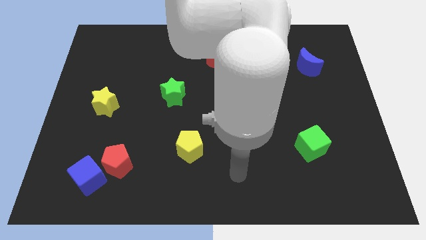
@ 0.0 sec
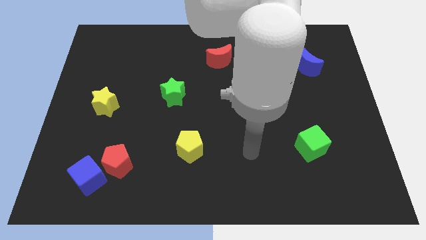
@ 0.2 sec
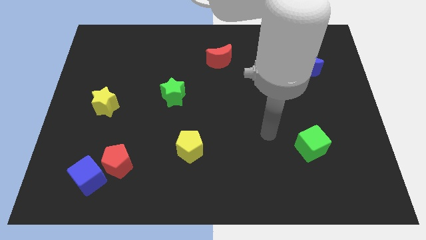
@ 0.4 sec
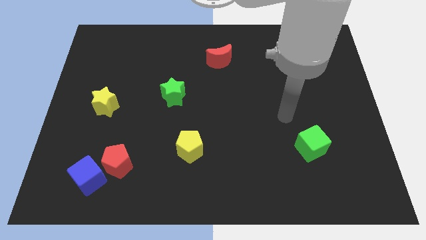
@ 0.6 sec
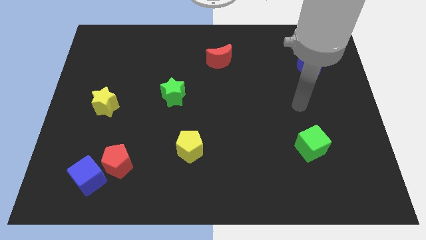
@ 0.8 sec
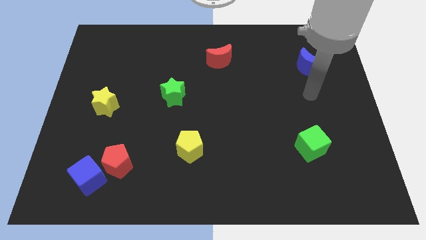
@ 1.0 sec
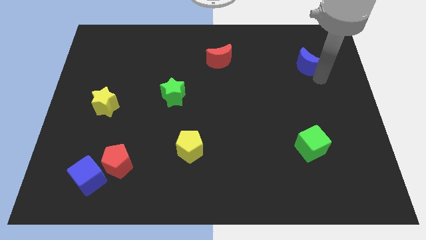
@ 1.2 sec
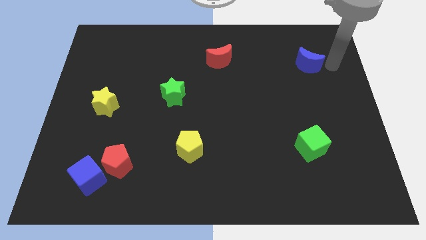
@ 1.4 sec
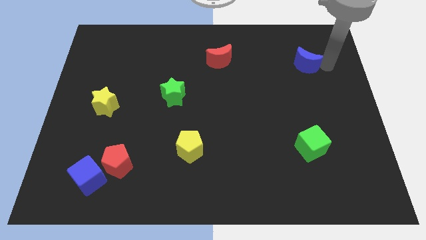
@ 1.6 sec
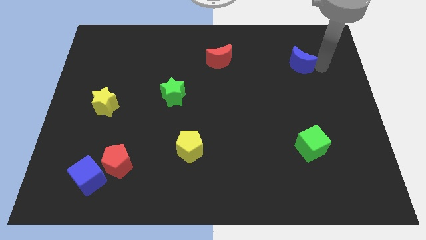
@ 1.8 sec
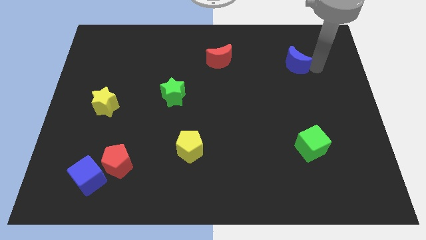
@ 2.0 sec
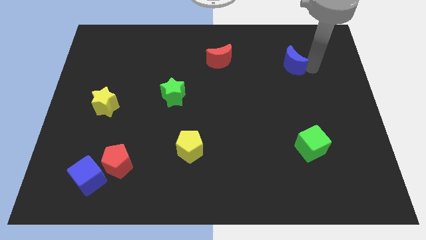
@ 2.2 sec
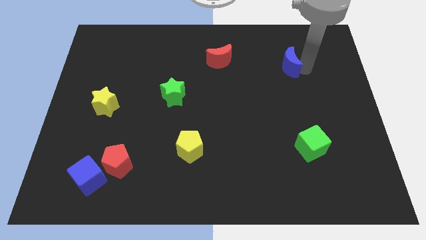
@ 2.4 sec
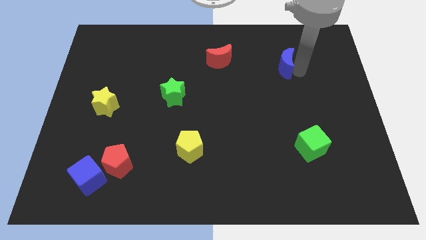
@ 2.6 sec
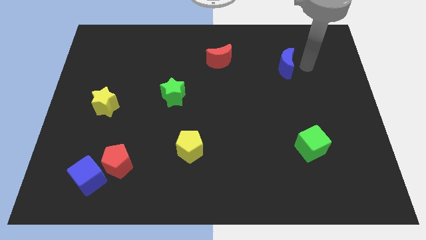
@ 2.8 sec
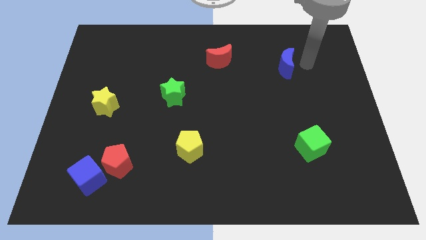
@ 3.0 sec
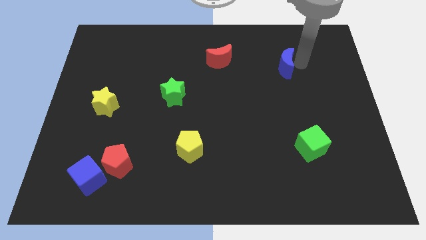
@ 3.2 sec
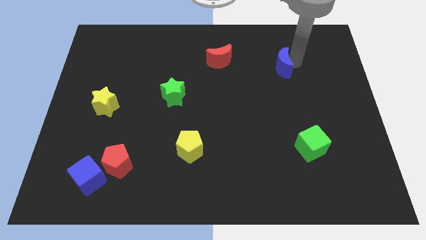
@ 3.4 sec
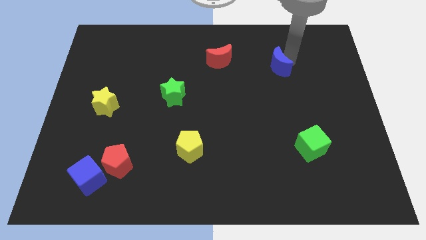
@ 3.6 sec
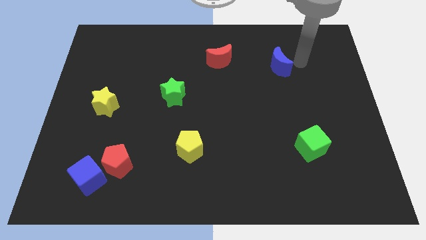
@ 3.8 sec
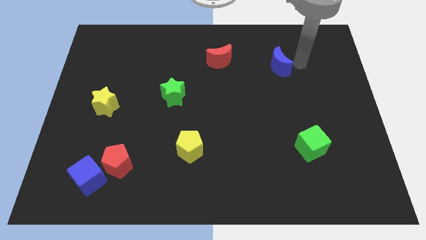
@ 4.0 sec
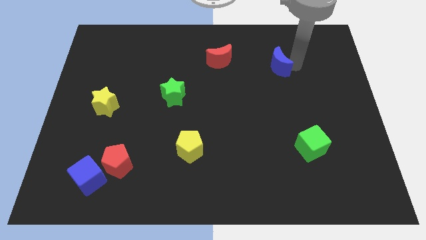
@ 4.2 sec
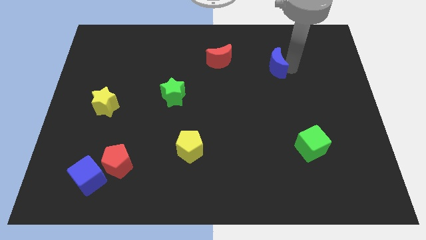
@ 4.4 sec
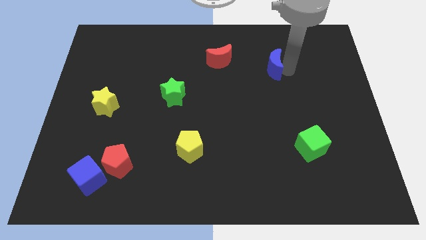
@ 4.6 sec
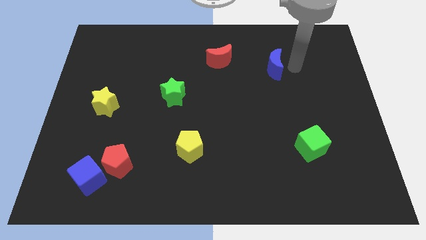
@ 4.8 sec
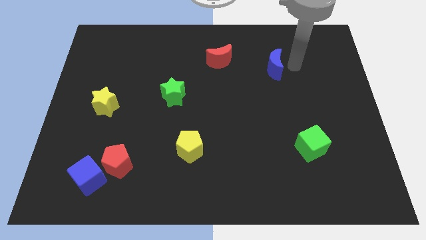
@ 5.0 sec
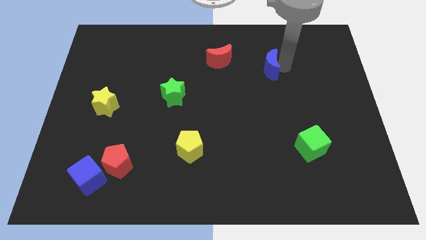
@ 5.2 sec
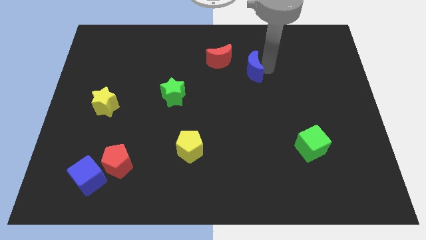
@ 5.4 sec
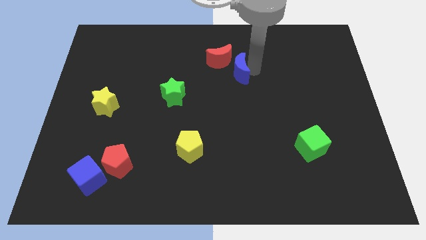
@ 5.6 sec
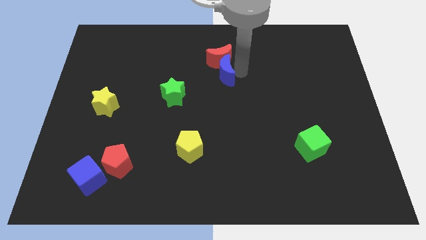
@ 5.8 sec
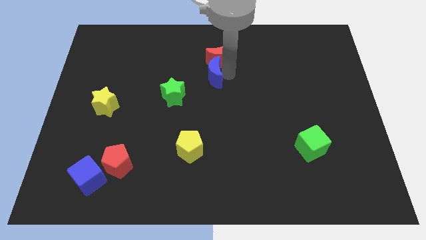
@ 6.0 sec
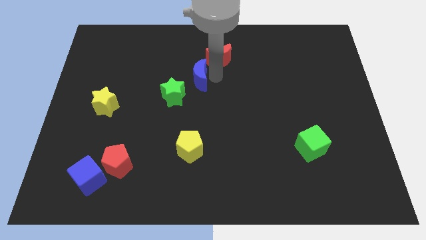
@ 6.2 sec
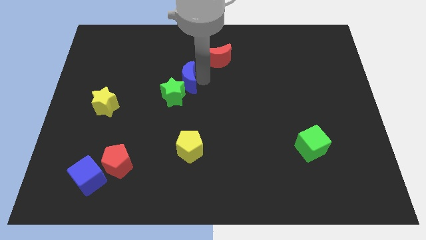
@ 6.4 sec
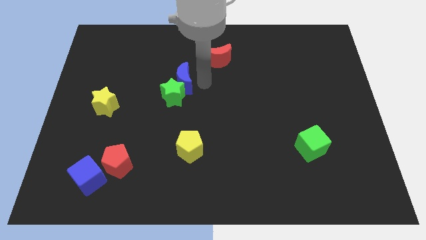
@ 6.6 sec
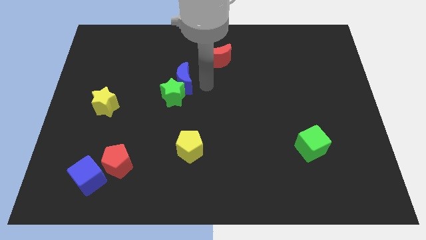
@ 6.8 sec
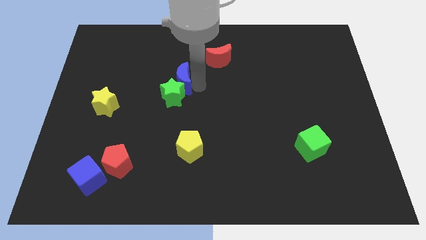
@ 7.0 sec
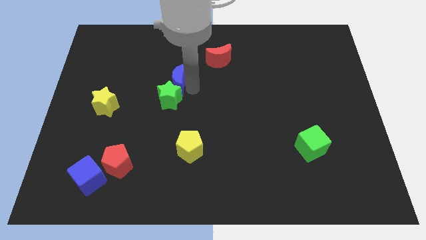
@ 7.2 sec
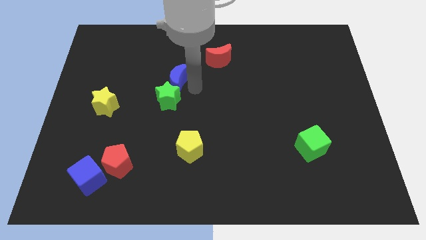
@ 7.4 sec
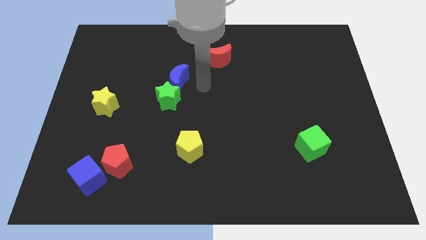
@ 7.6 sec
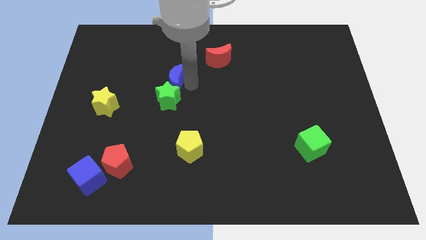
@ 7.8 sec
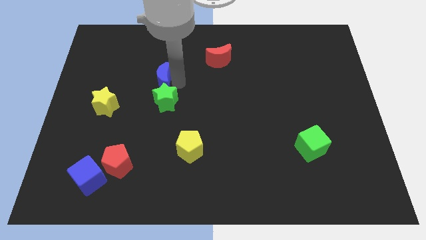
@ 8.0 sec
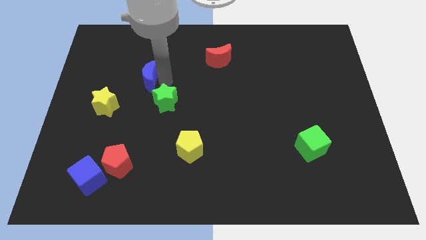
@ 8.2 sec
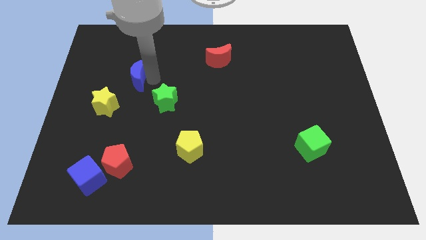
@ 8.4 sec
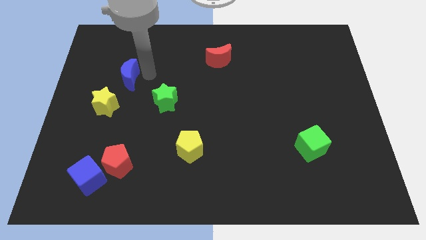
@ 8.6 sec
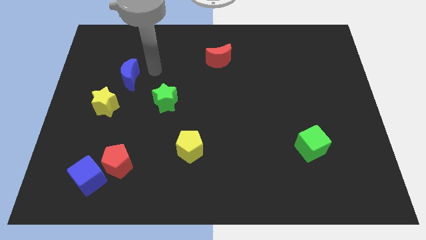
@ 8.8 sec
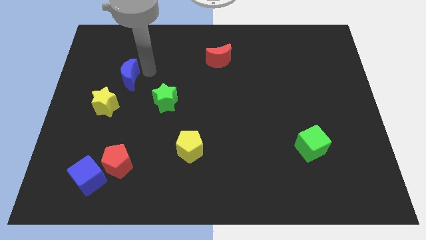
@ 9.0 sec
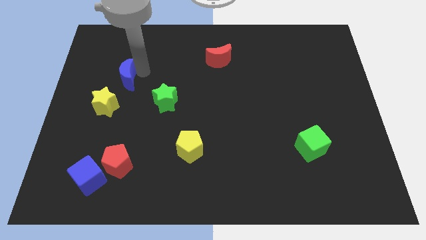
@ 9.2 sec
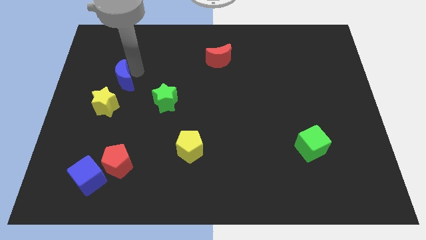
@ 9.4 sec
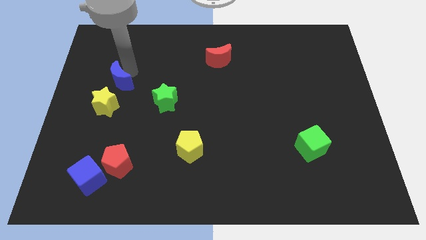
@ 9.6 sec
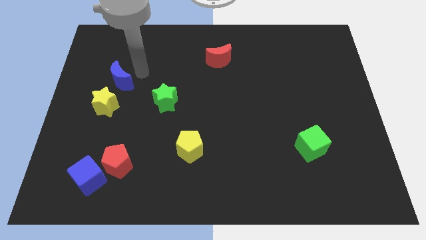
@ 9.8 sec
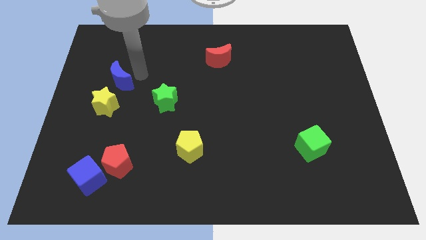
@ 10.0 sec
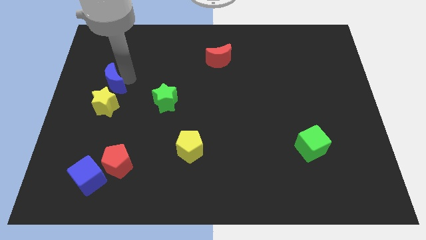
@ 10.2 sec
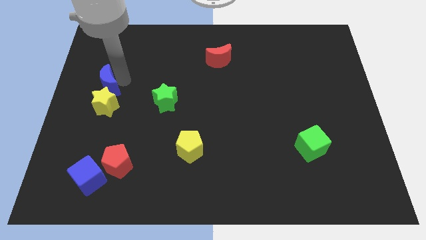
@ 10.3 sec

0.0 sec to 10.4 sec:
put the blue moon to the center left

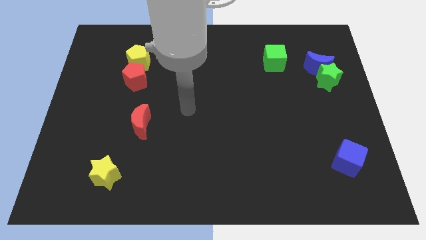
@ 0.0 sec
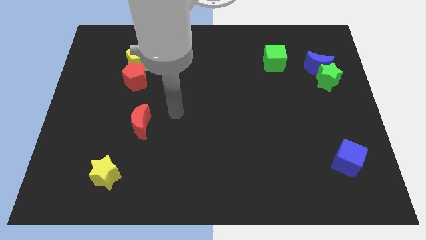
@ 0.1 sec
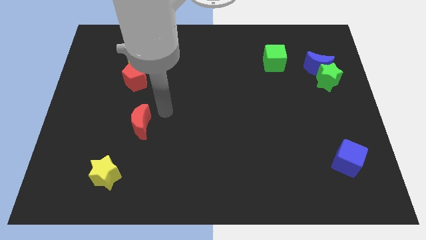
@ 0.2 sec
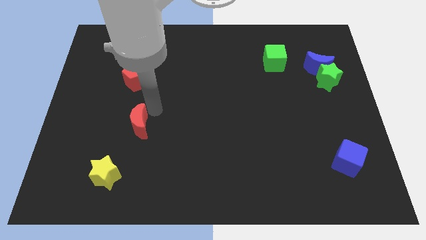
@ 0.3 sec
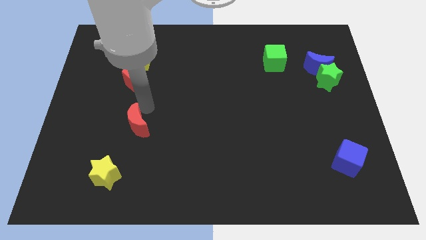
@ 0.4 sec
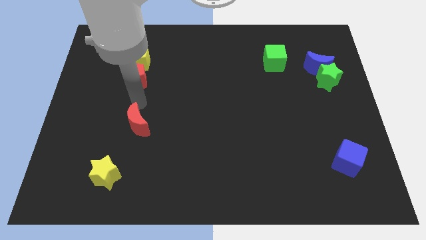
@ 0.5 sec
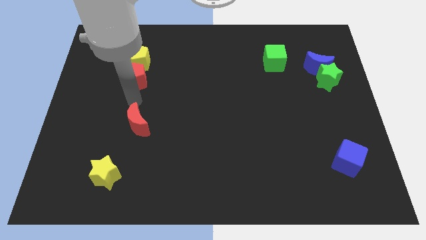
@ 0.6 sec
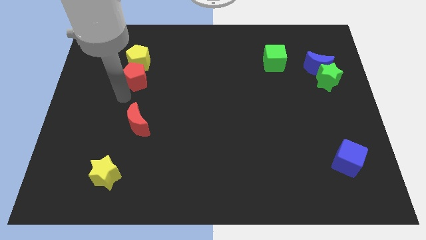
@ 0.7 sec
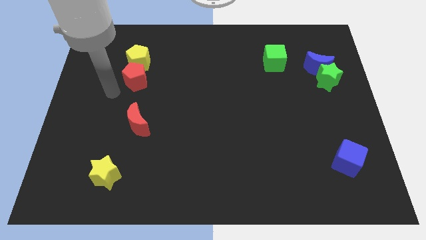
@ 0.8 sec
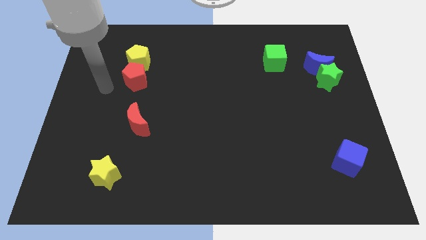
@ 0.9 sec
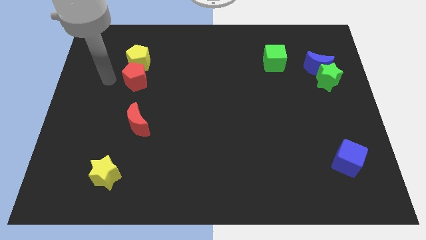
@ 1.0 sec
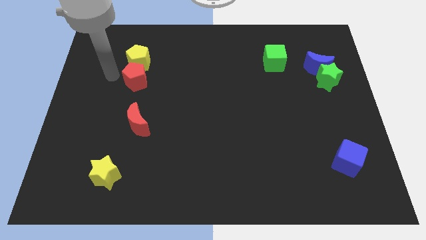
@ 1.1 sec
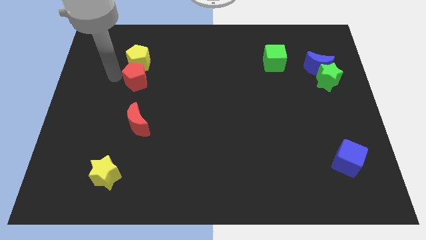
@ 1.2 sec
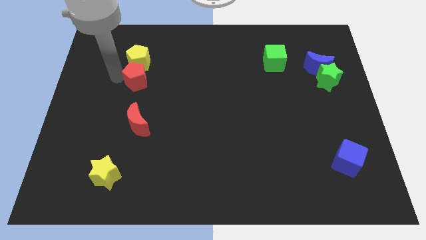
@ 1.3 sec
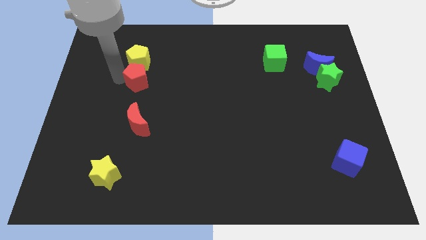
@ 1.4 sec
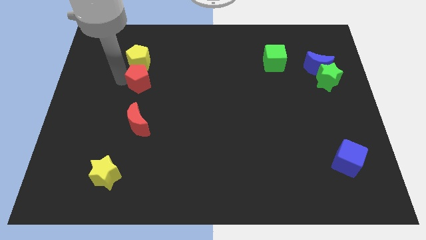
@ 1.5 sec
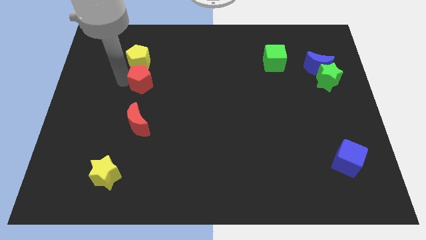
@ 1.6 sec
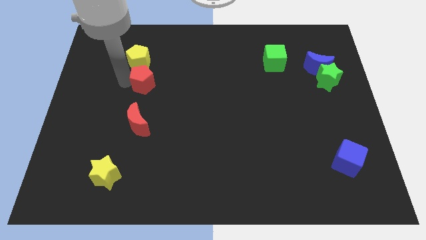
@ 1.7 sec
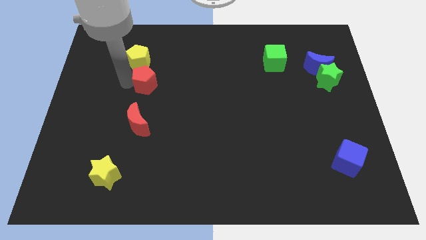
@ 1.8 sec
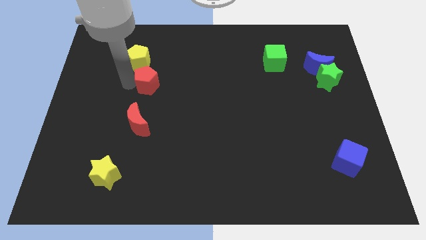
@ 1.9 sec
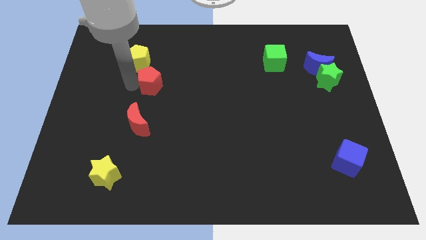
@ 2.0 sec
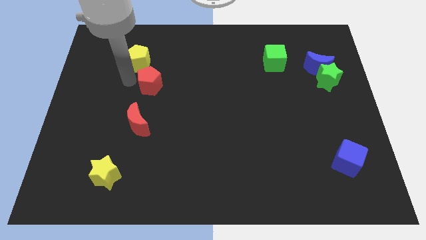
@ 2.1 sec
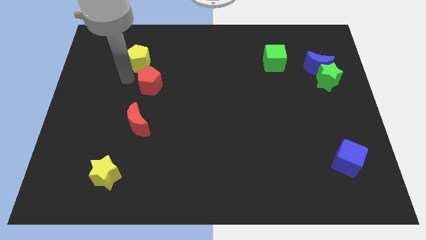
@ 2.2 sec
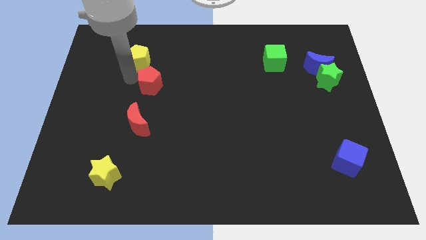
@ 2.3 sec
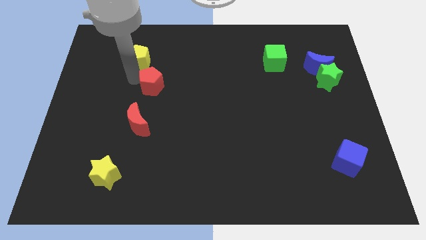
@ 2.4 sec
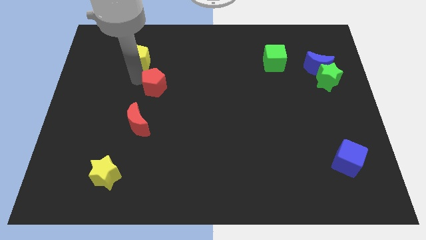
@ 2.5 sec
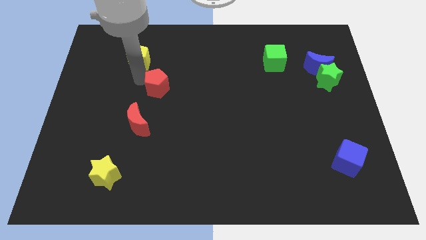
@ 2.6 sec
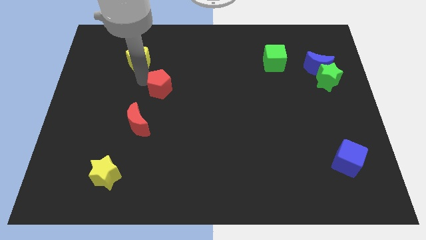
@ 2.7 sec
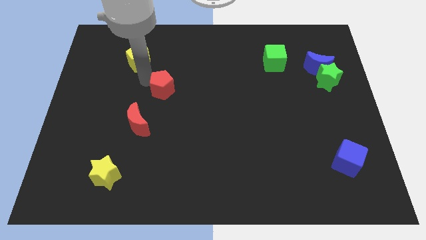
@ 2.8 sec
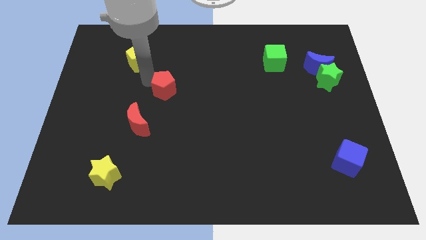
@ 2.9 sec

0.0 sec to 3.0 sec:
push the red pentagon to the middle
